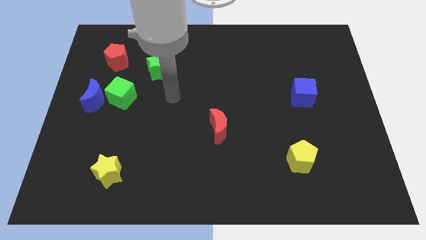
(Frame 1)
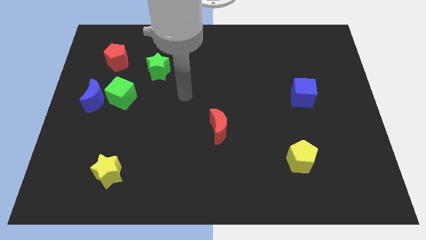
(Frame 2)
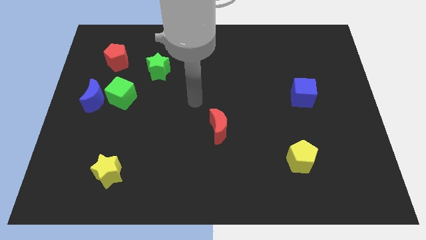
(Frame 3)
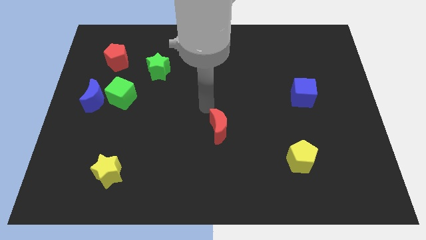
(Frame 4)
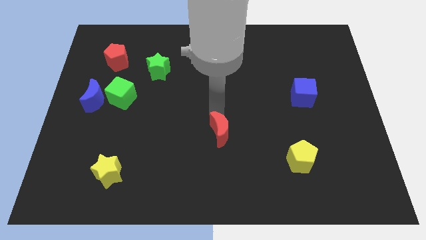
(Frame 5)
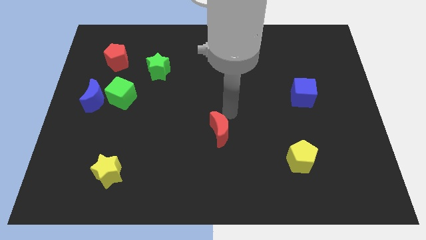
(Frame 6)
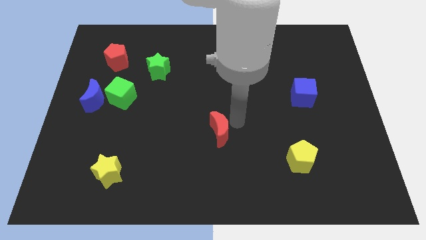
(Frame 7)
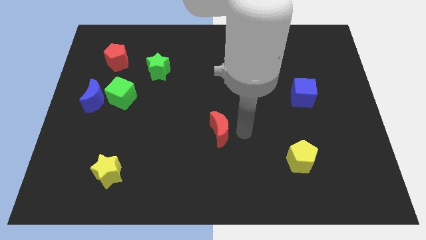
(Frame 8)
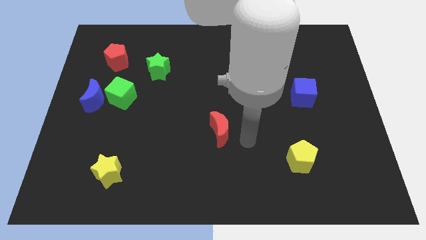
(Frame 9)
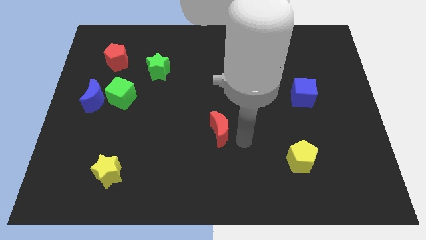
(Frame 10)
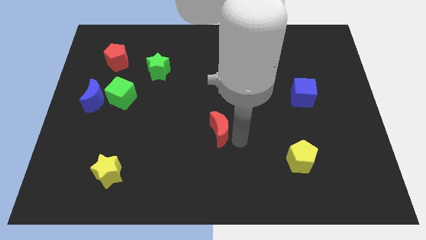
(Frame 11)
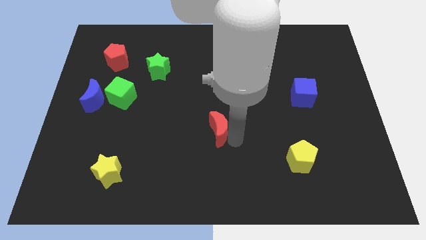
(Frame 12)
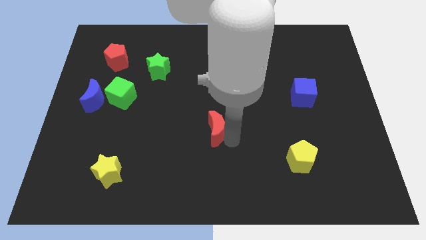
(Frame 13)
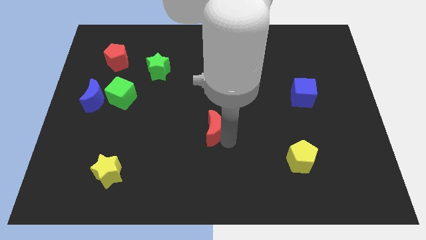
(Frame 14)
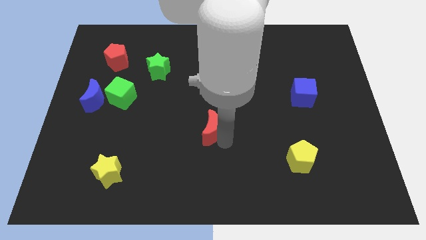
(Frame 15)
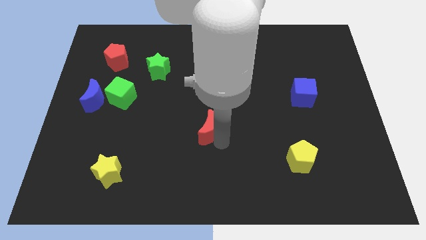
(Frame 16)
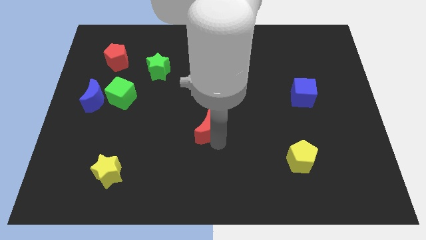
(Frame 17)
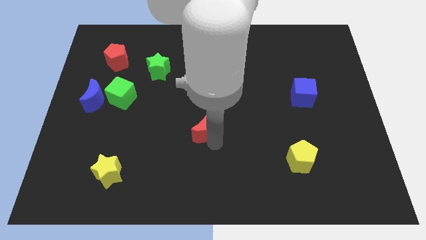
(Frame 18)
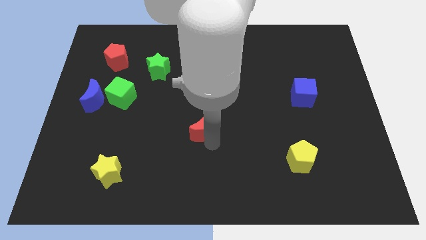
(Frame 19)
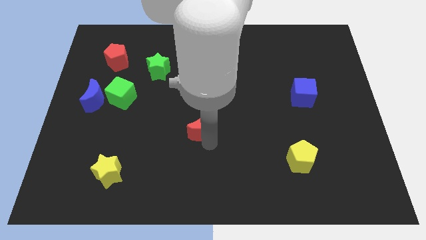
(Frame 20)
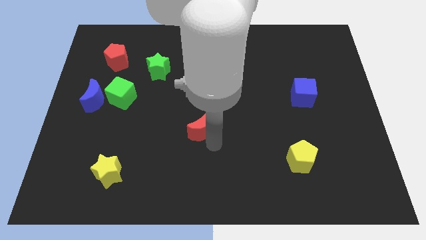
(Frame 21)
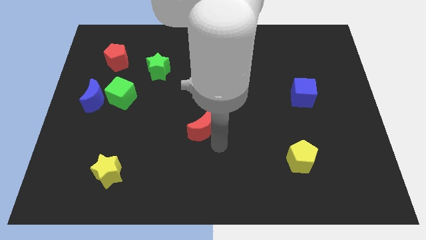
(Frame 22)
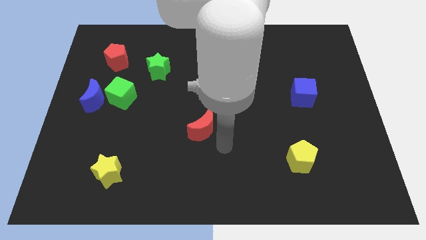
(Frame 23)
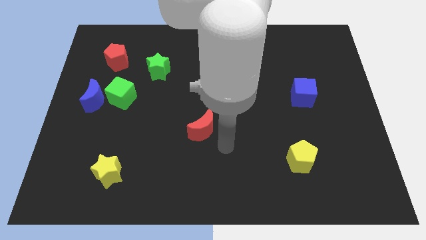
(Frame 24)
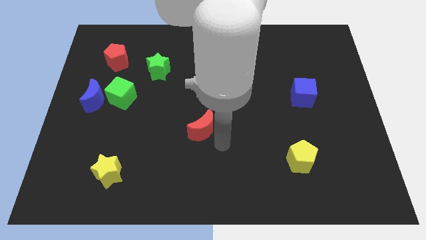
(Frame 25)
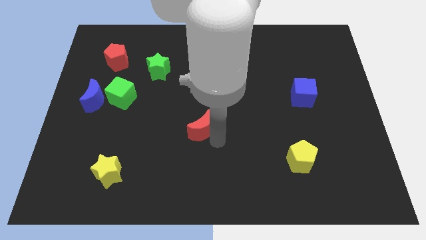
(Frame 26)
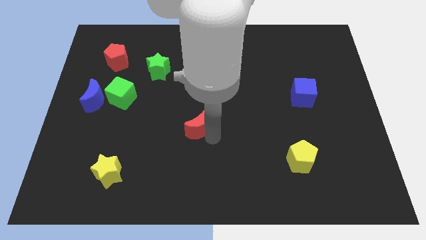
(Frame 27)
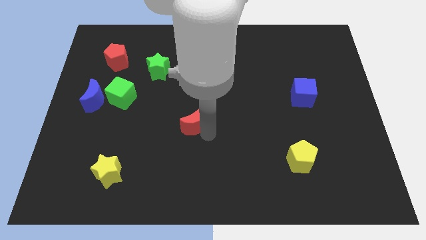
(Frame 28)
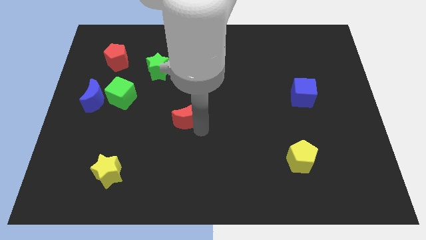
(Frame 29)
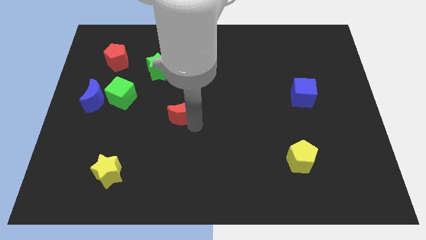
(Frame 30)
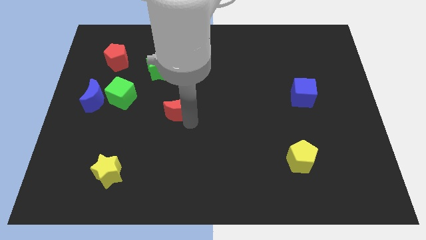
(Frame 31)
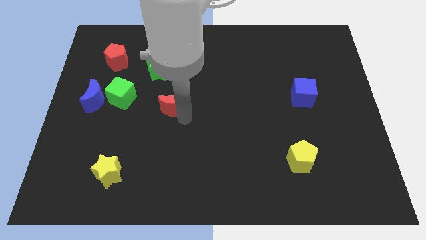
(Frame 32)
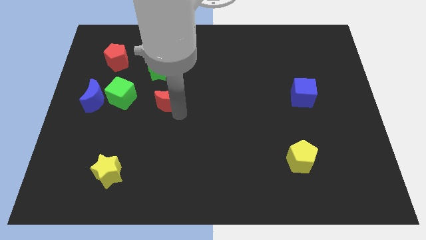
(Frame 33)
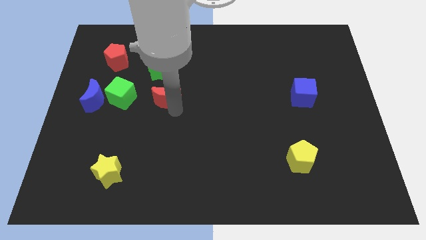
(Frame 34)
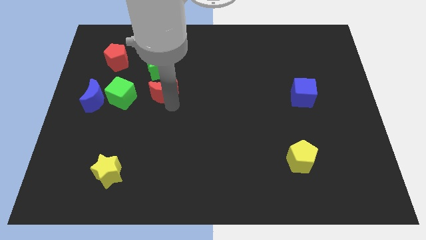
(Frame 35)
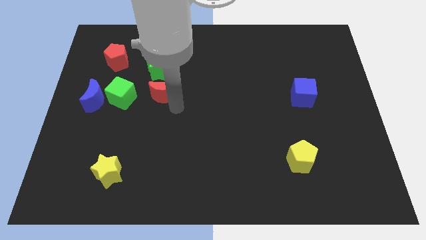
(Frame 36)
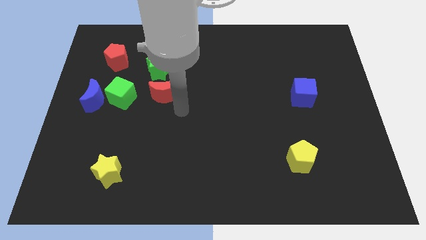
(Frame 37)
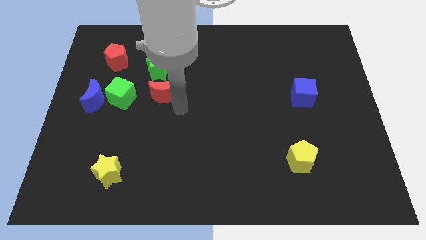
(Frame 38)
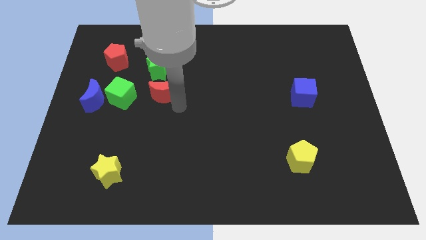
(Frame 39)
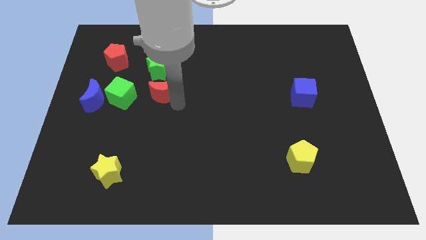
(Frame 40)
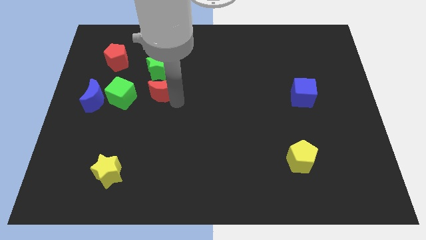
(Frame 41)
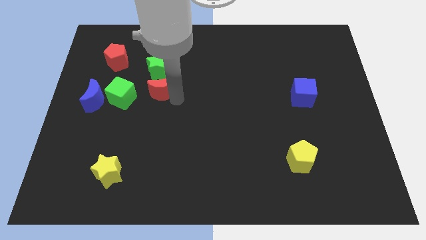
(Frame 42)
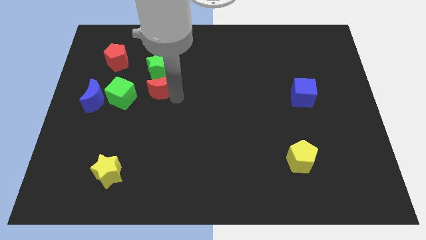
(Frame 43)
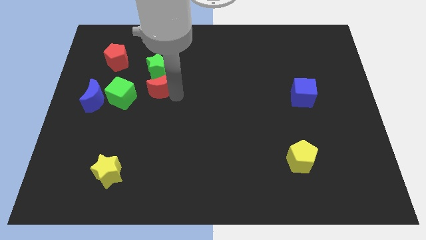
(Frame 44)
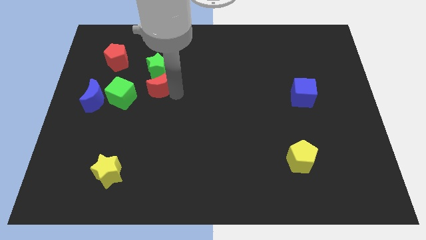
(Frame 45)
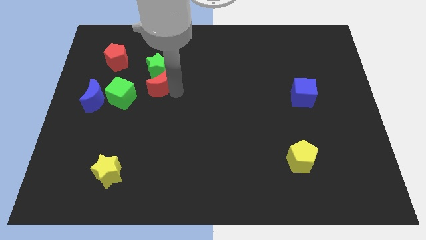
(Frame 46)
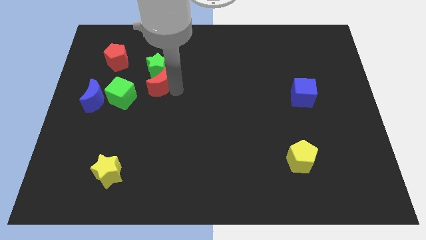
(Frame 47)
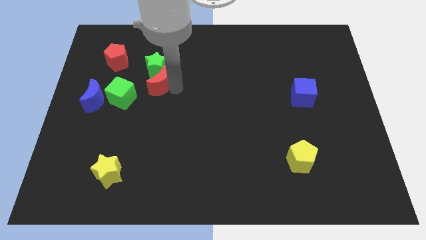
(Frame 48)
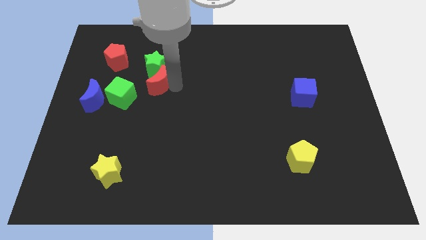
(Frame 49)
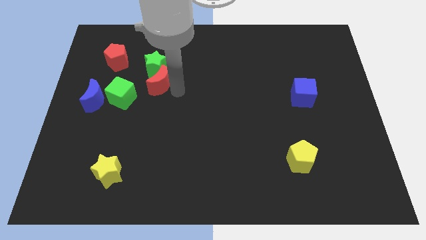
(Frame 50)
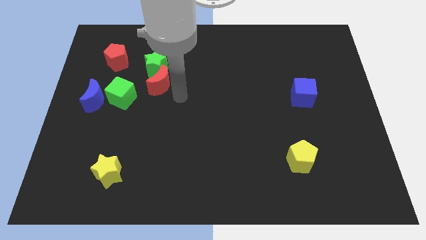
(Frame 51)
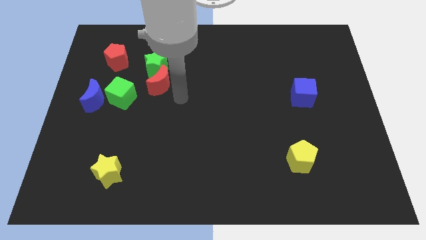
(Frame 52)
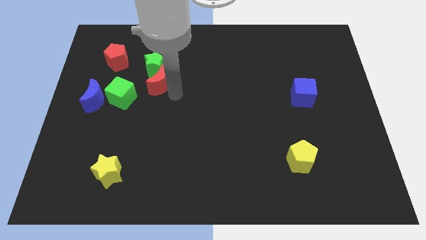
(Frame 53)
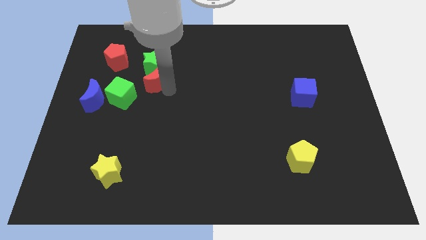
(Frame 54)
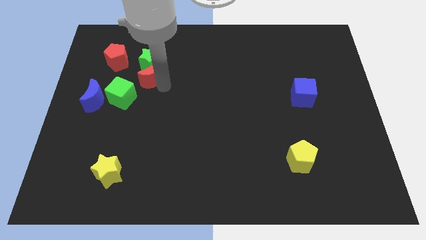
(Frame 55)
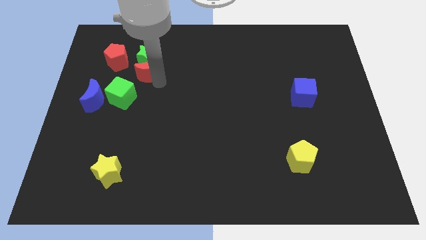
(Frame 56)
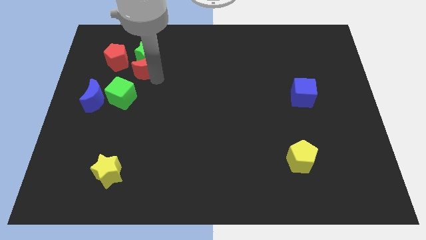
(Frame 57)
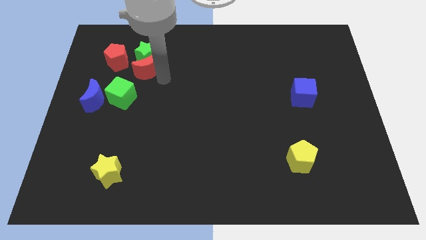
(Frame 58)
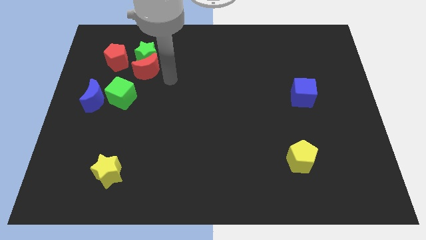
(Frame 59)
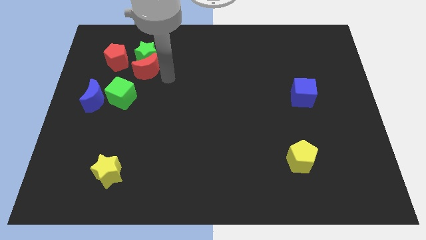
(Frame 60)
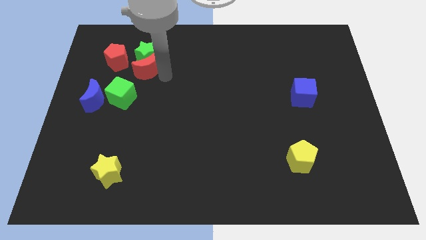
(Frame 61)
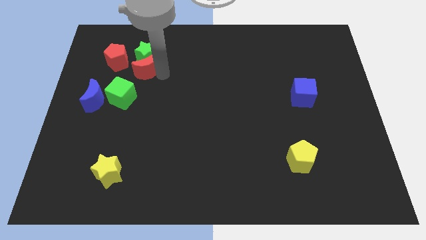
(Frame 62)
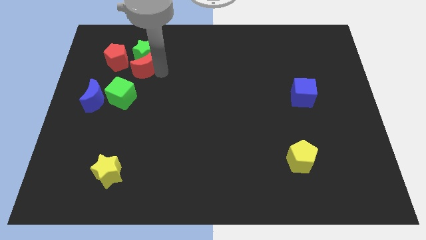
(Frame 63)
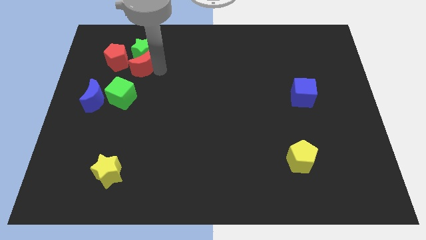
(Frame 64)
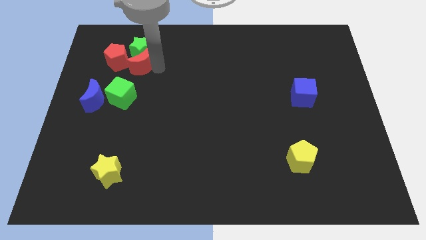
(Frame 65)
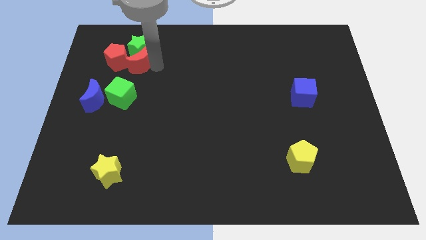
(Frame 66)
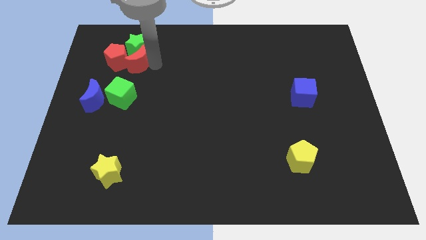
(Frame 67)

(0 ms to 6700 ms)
slide the red moon to the red pentagon
